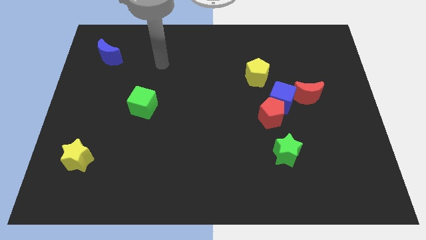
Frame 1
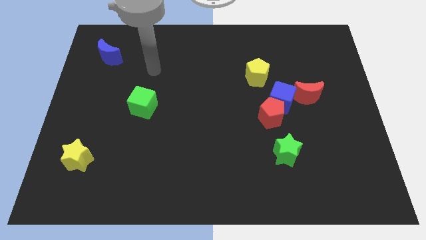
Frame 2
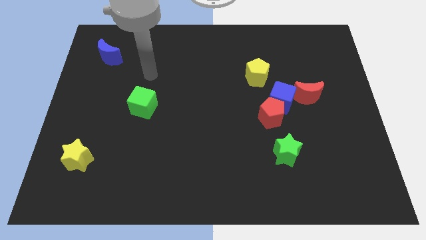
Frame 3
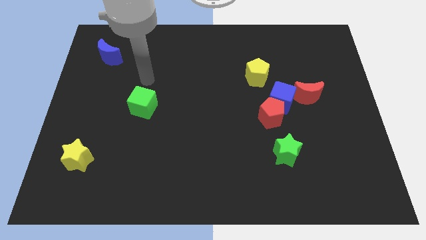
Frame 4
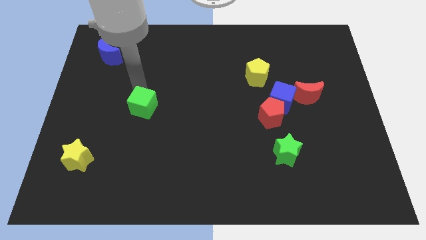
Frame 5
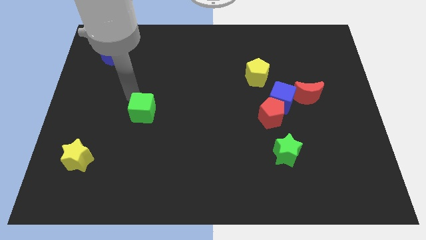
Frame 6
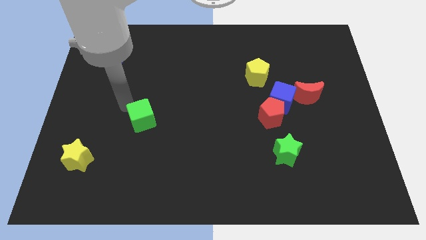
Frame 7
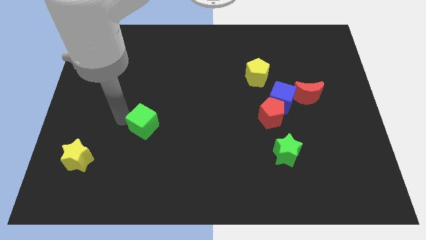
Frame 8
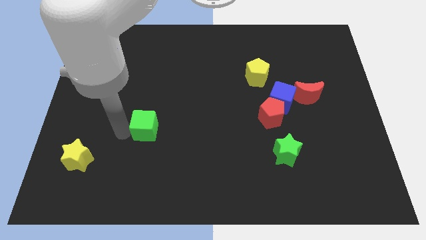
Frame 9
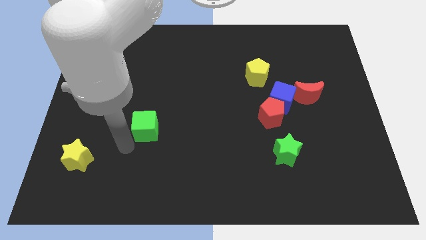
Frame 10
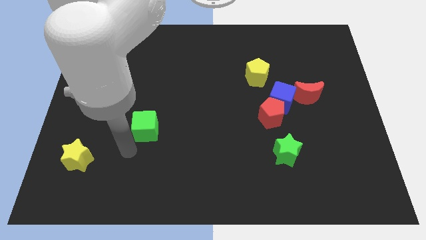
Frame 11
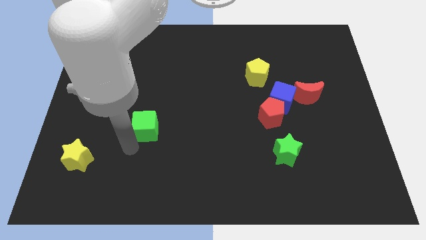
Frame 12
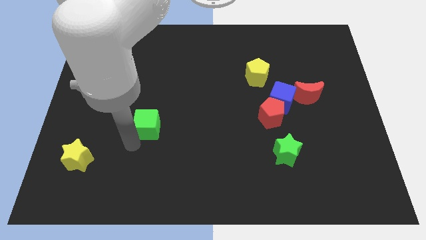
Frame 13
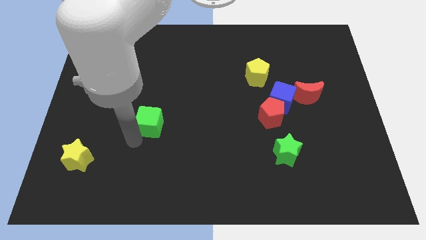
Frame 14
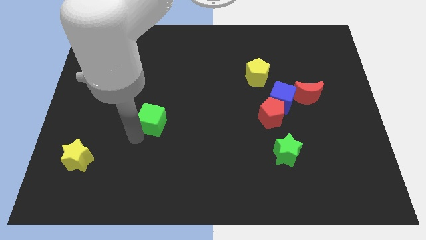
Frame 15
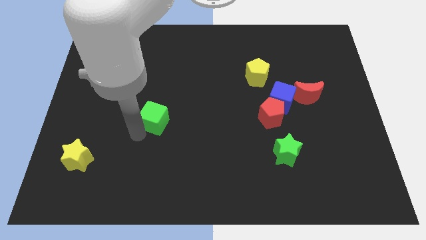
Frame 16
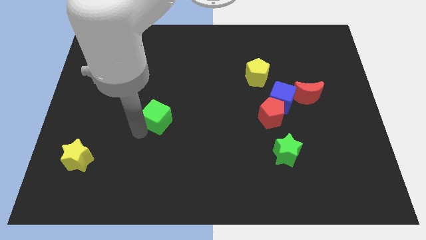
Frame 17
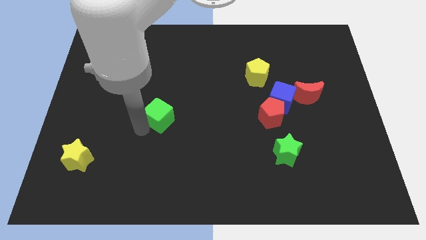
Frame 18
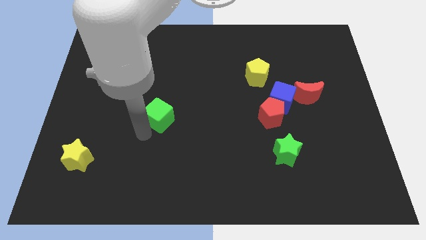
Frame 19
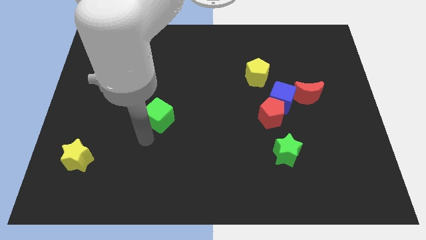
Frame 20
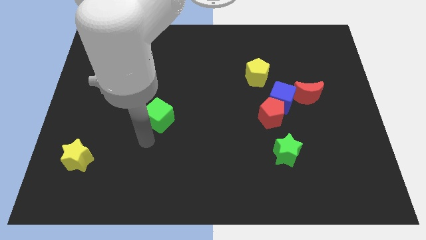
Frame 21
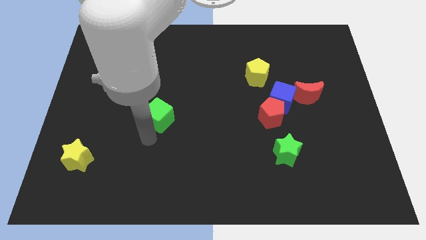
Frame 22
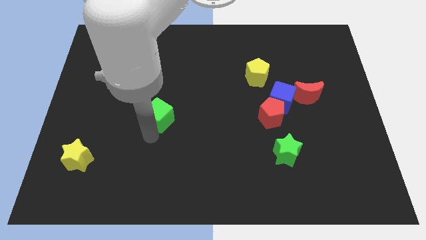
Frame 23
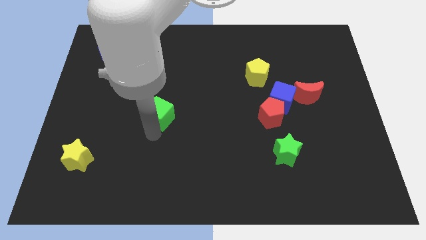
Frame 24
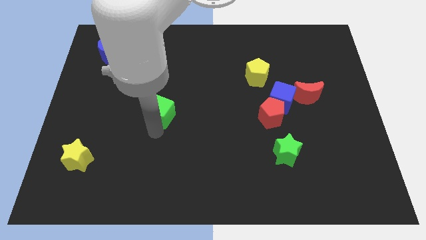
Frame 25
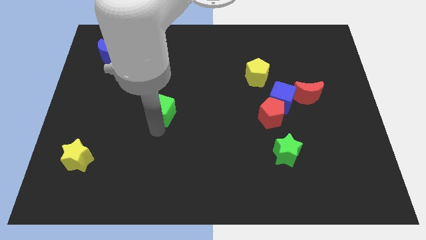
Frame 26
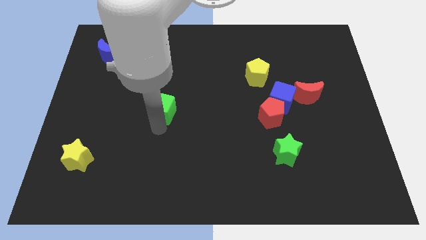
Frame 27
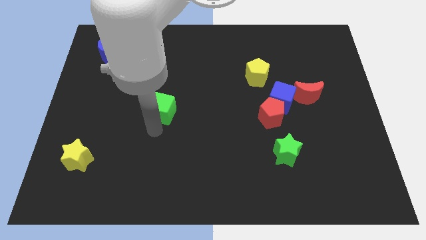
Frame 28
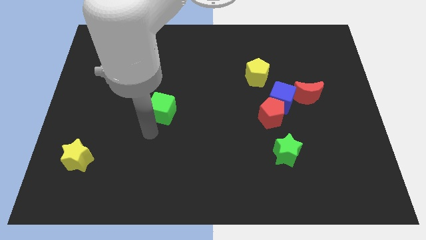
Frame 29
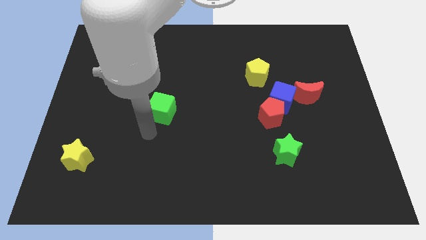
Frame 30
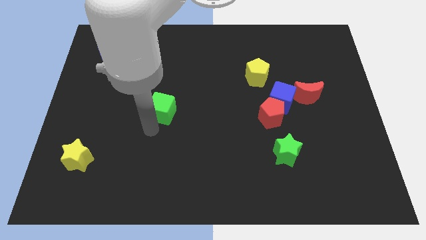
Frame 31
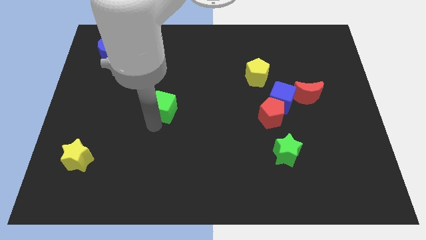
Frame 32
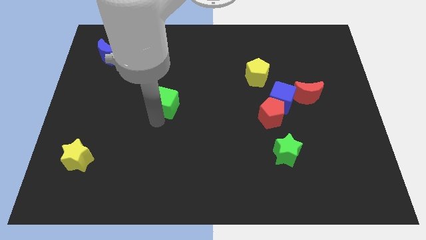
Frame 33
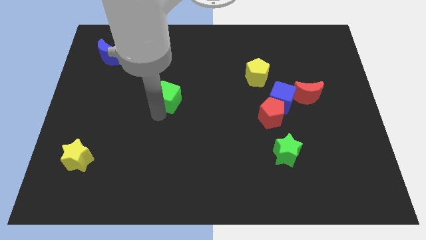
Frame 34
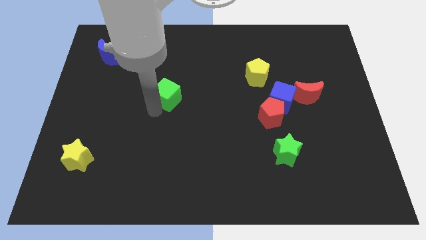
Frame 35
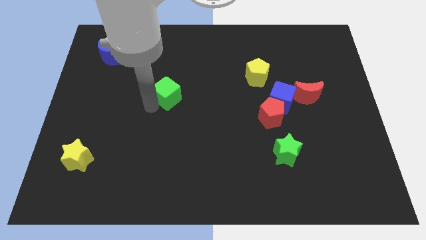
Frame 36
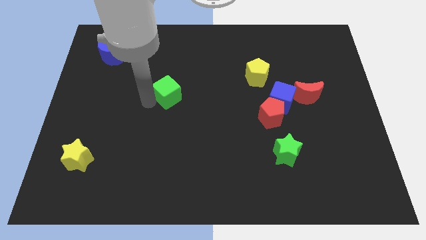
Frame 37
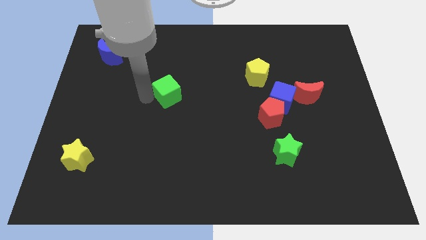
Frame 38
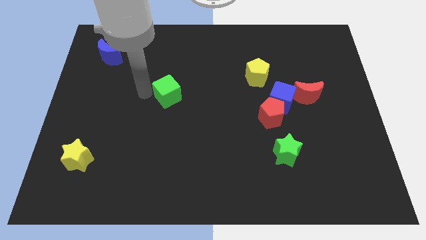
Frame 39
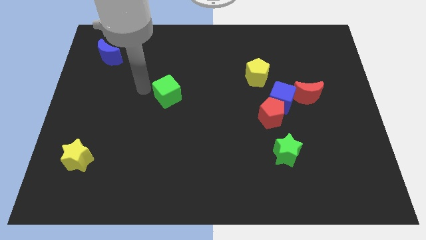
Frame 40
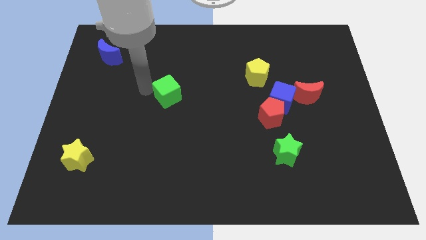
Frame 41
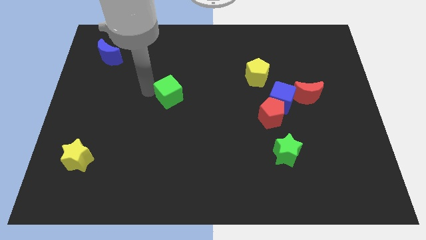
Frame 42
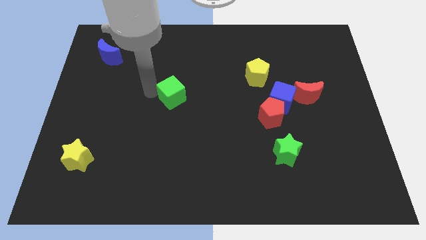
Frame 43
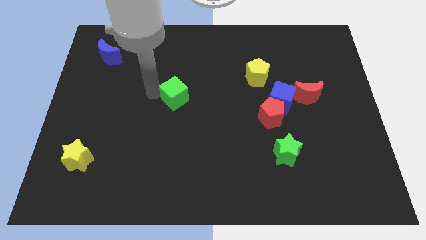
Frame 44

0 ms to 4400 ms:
move the green cube a little bit to the right

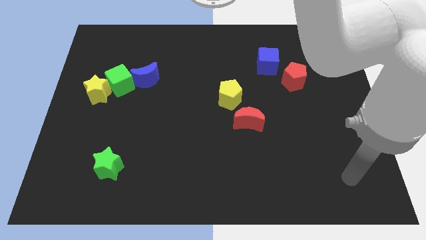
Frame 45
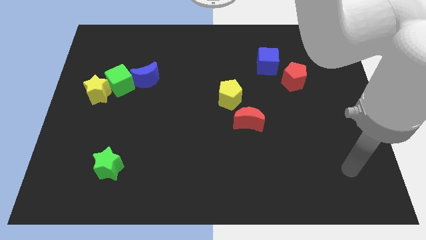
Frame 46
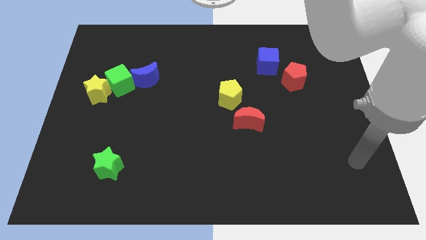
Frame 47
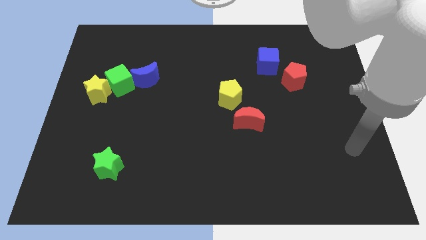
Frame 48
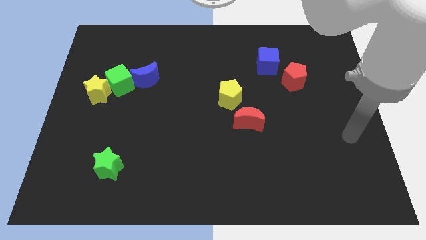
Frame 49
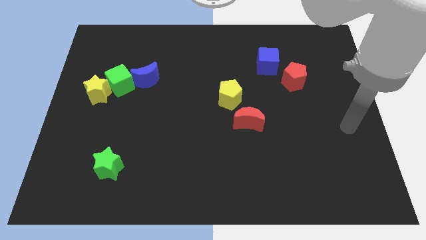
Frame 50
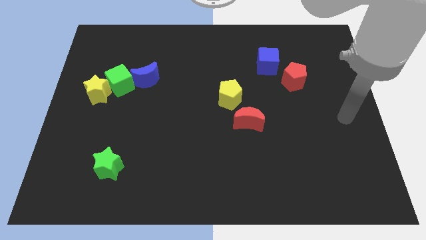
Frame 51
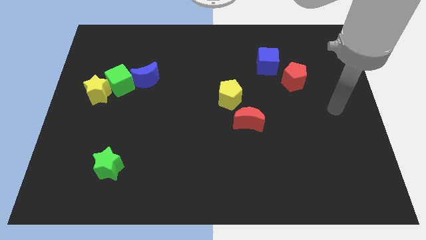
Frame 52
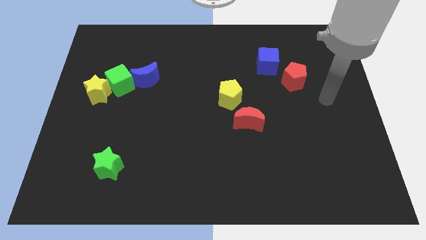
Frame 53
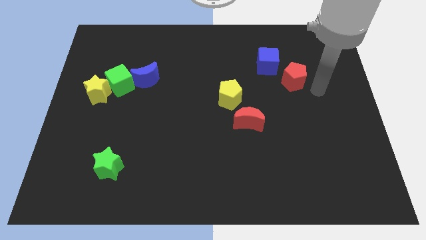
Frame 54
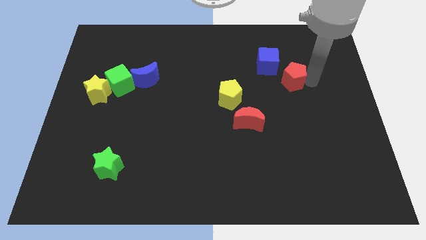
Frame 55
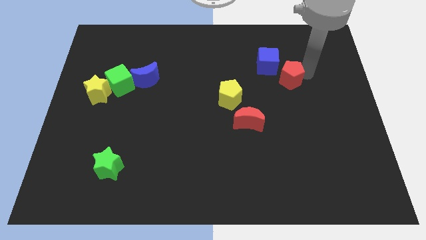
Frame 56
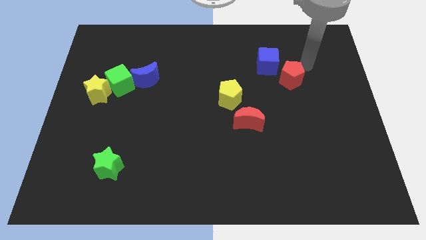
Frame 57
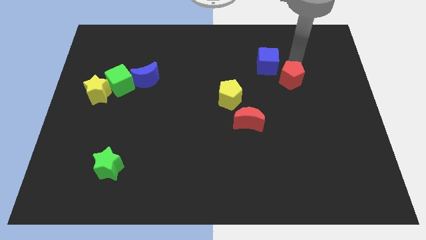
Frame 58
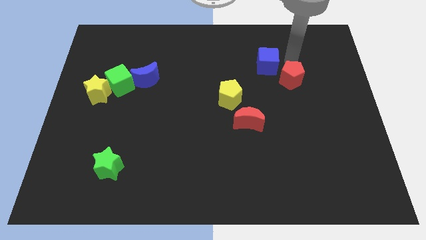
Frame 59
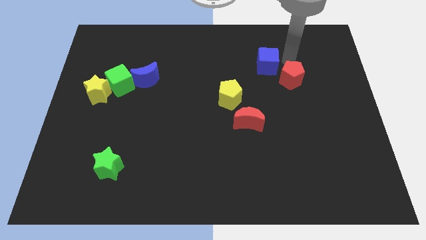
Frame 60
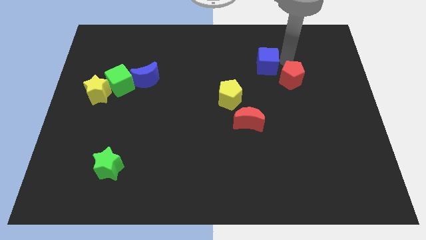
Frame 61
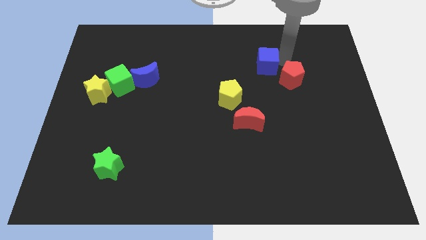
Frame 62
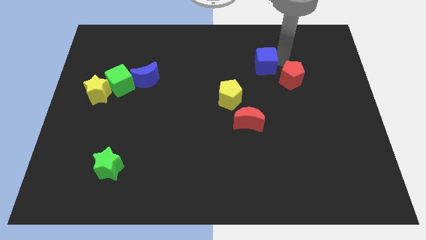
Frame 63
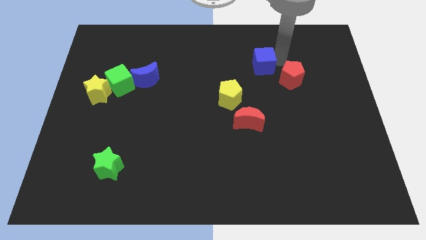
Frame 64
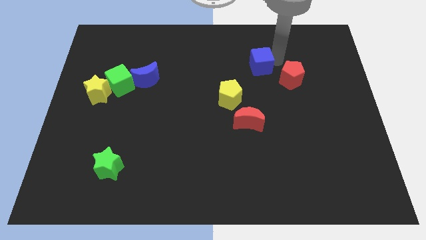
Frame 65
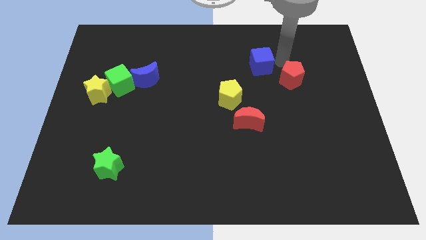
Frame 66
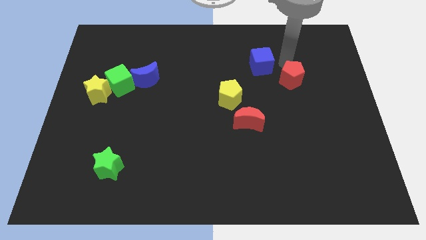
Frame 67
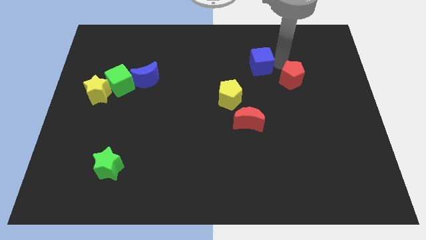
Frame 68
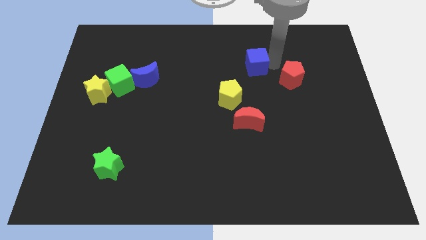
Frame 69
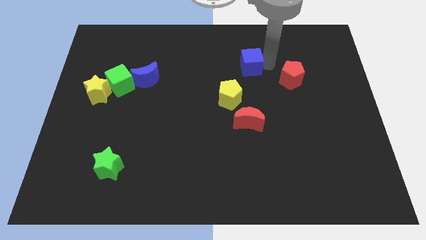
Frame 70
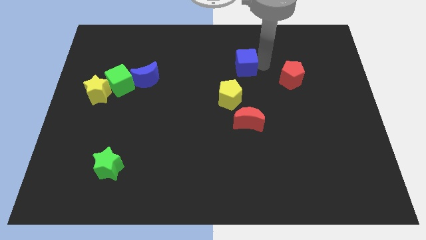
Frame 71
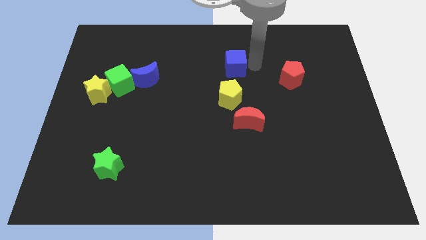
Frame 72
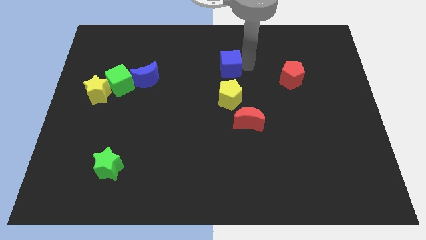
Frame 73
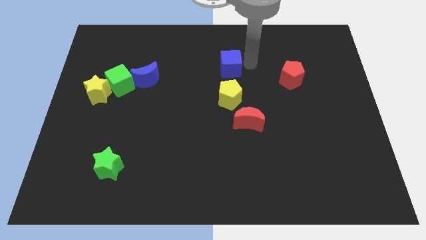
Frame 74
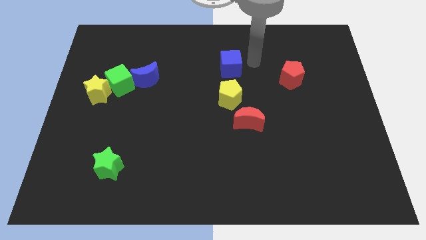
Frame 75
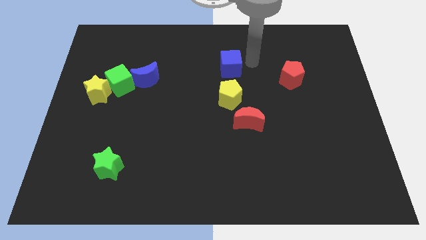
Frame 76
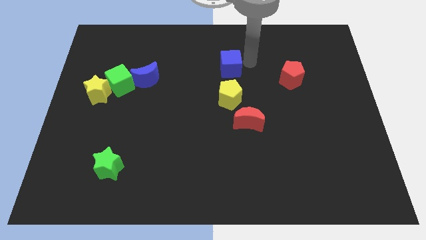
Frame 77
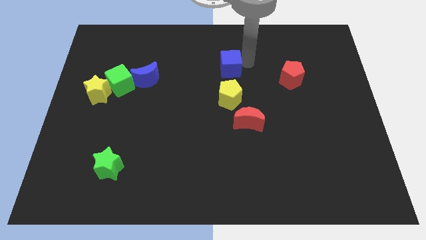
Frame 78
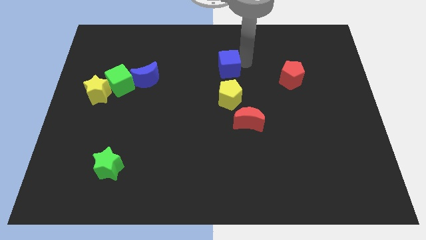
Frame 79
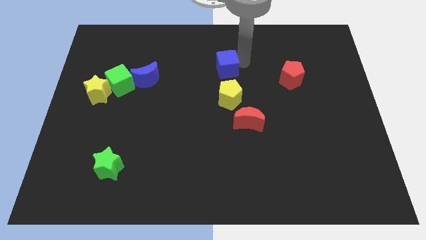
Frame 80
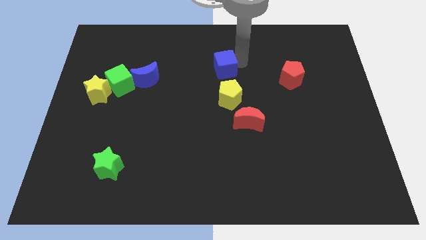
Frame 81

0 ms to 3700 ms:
slide the blue cube downwards and left a little
